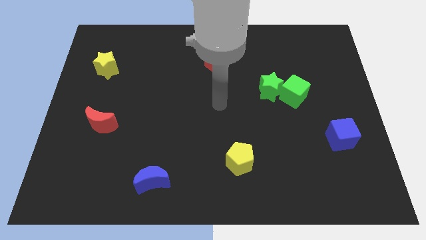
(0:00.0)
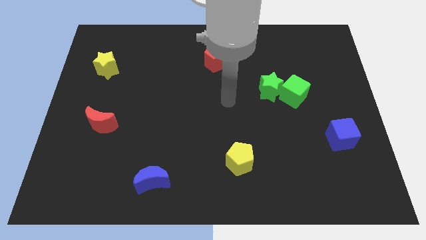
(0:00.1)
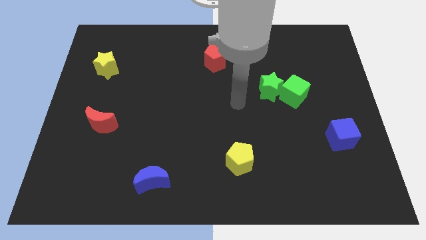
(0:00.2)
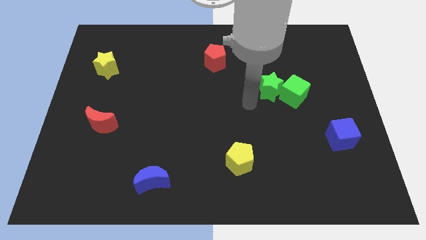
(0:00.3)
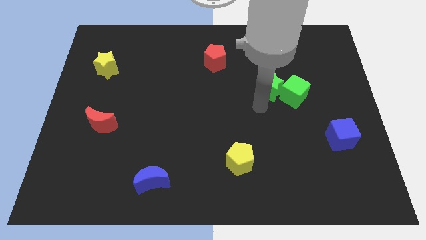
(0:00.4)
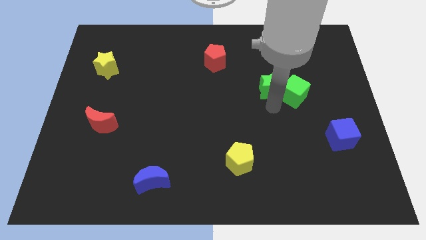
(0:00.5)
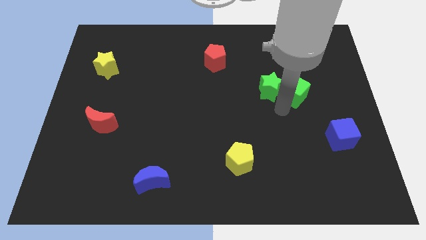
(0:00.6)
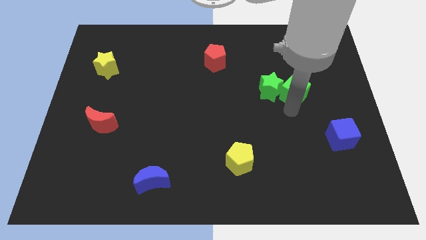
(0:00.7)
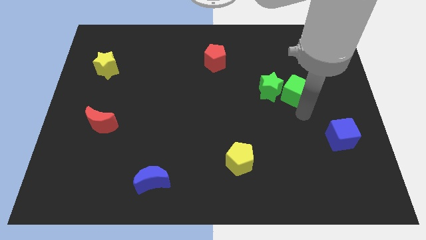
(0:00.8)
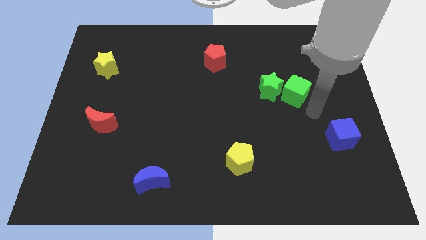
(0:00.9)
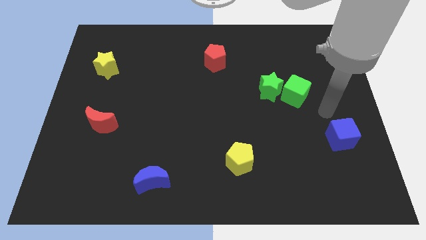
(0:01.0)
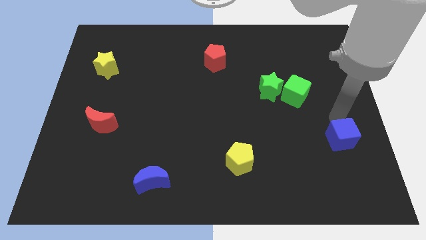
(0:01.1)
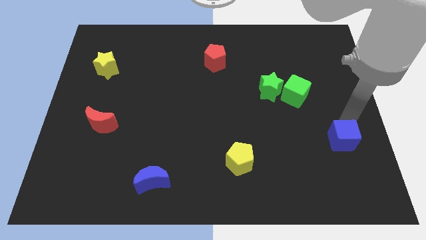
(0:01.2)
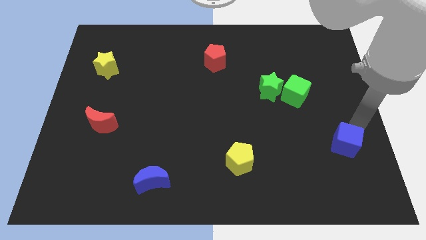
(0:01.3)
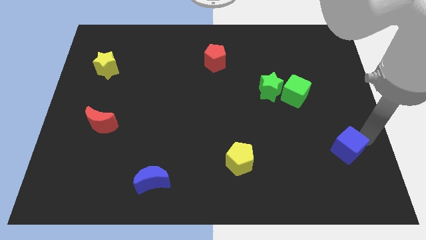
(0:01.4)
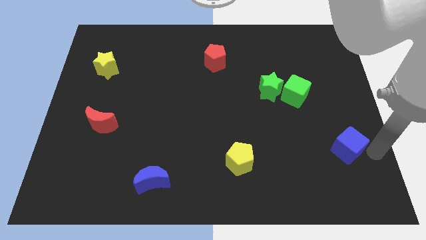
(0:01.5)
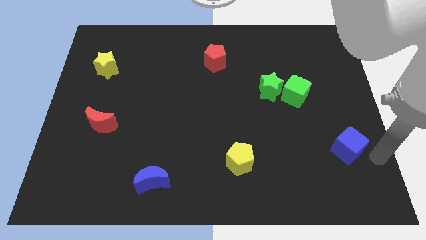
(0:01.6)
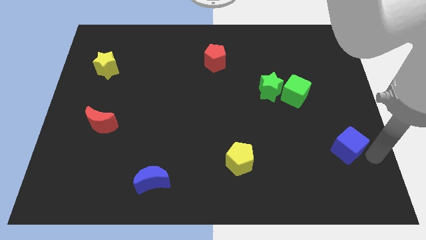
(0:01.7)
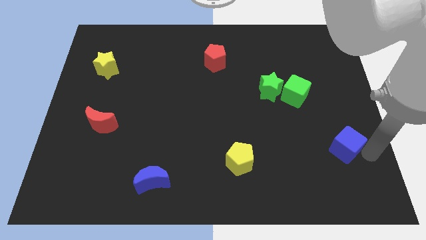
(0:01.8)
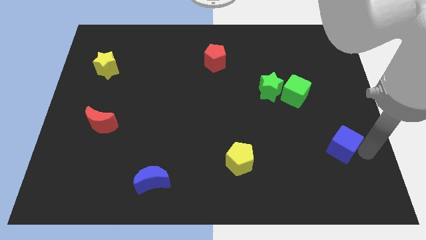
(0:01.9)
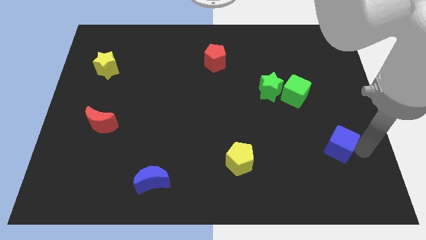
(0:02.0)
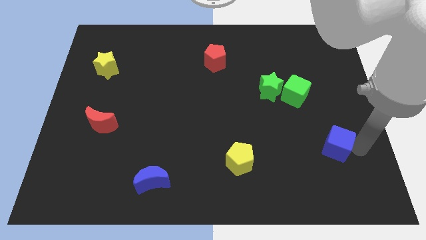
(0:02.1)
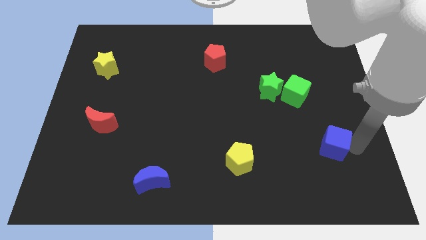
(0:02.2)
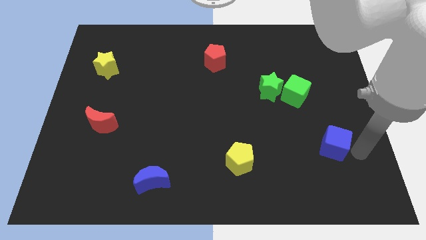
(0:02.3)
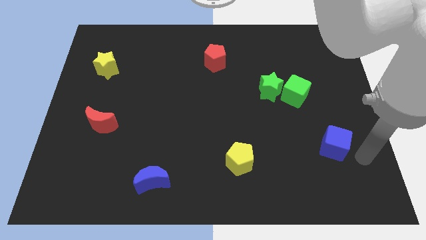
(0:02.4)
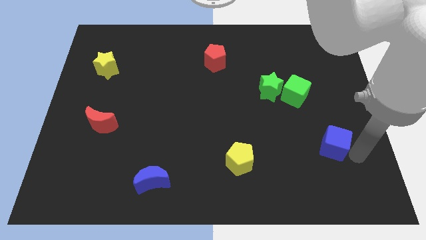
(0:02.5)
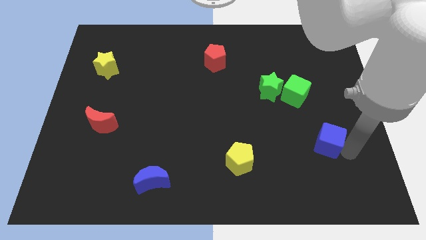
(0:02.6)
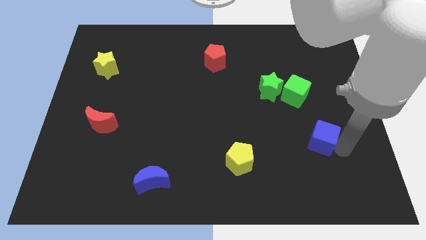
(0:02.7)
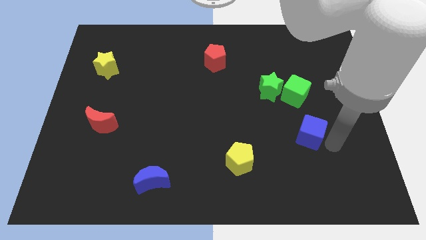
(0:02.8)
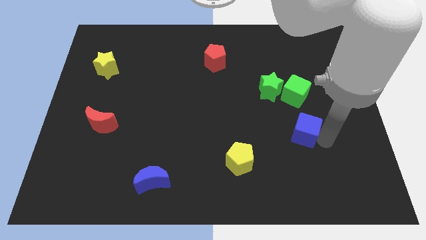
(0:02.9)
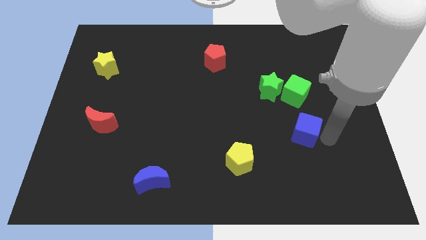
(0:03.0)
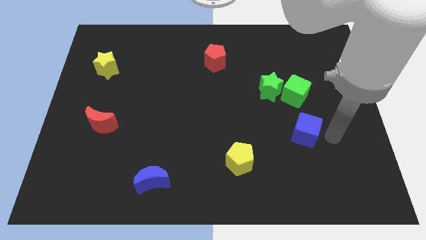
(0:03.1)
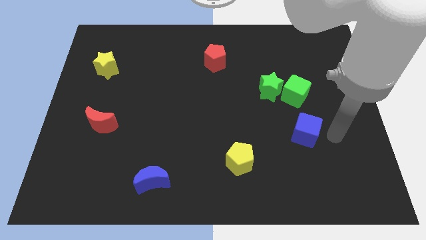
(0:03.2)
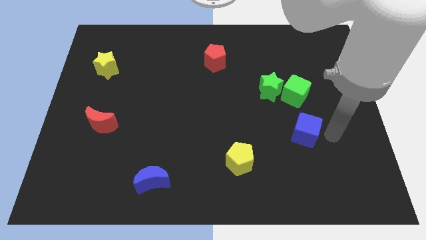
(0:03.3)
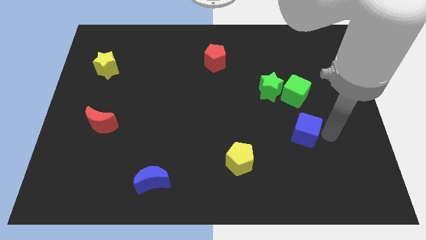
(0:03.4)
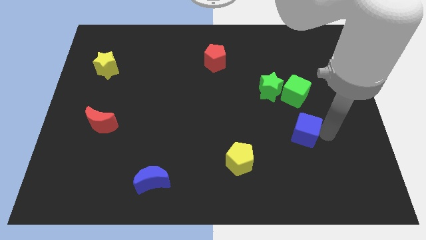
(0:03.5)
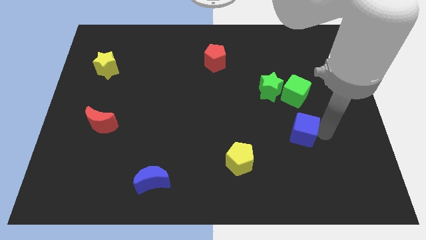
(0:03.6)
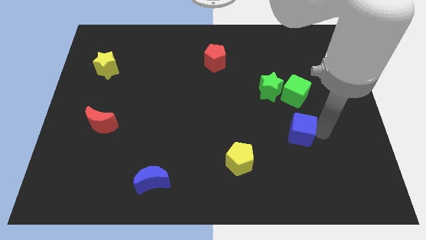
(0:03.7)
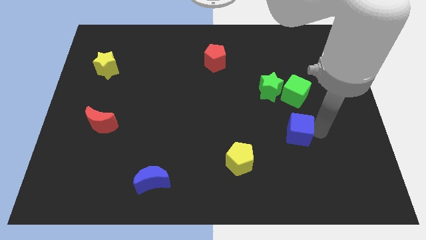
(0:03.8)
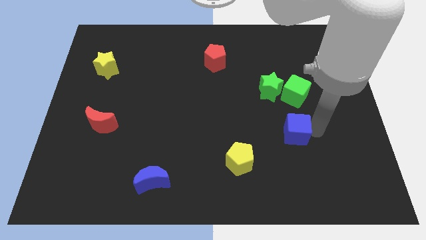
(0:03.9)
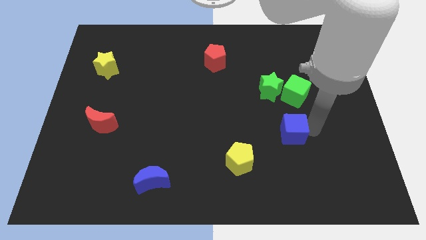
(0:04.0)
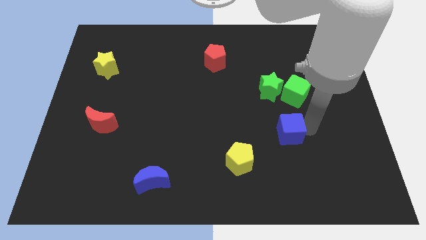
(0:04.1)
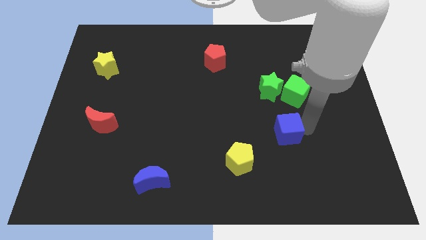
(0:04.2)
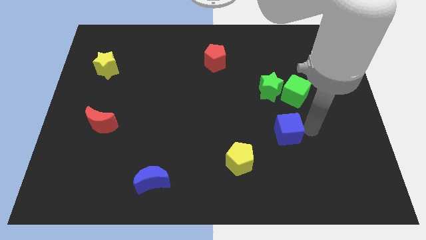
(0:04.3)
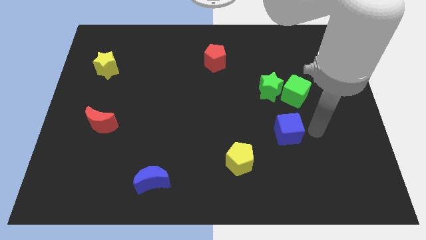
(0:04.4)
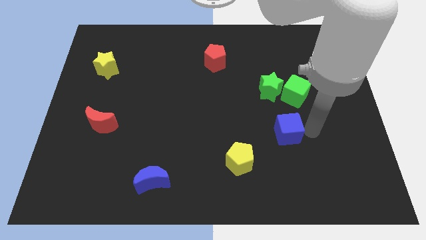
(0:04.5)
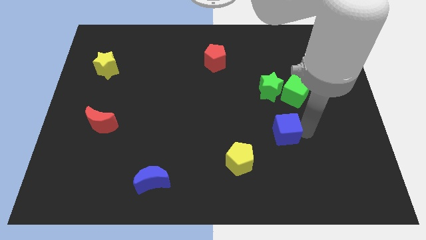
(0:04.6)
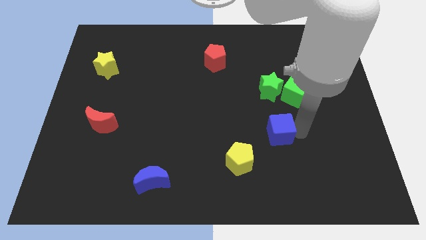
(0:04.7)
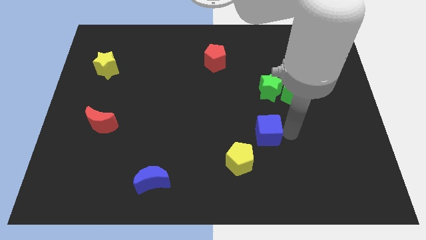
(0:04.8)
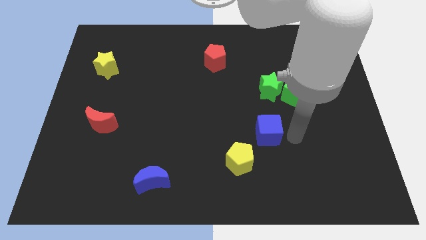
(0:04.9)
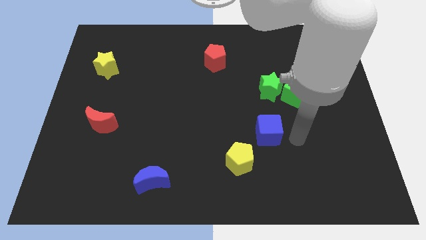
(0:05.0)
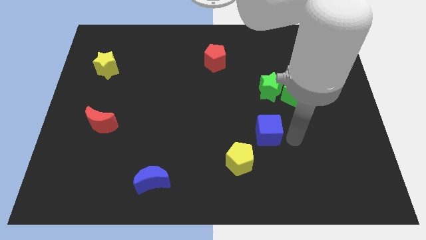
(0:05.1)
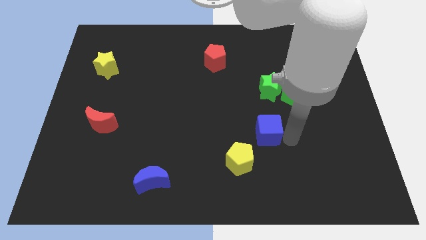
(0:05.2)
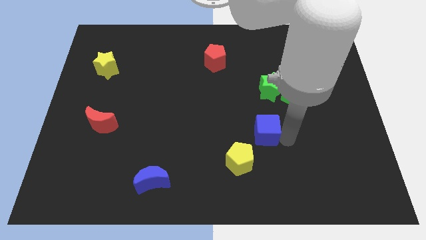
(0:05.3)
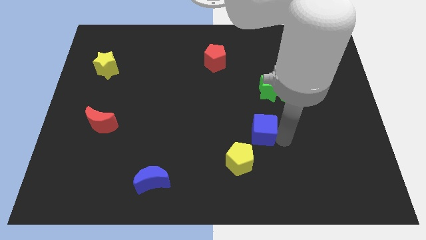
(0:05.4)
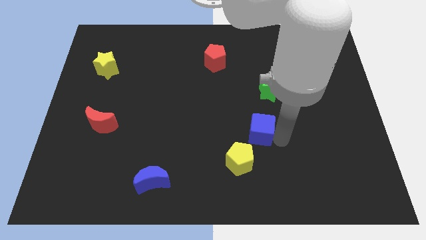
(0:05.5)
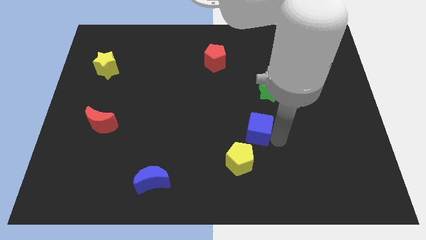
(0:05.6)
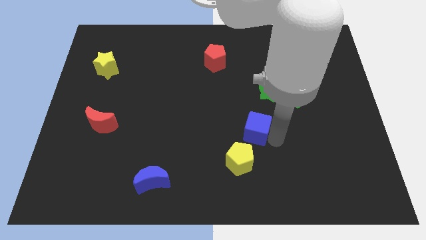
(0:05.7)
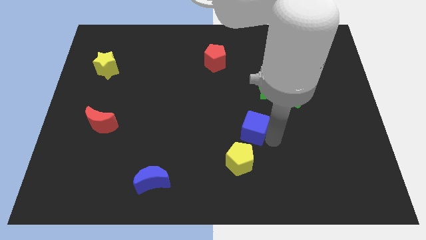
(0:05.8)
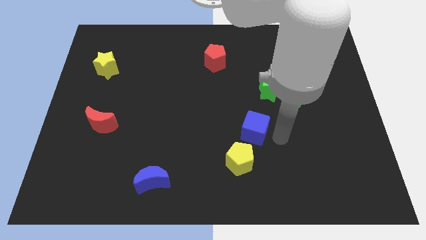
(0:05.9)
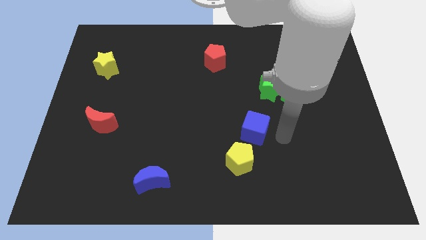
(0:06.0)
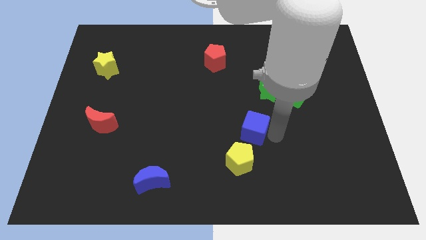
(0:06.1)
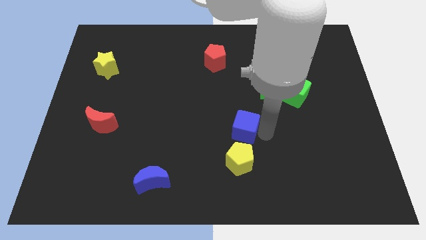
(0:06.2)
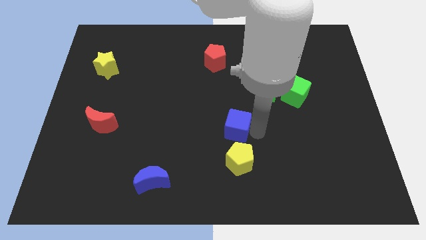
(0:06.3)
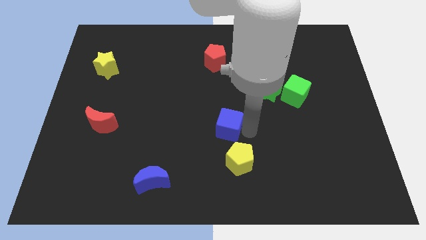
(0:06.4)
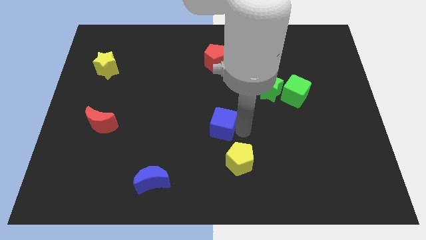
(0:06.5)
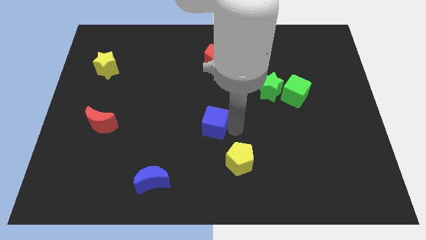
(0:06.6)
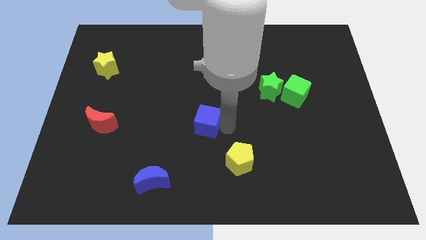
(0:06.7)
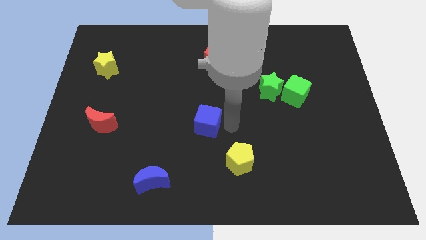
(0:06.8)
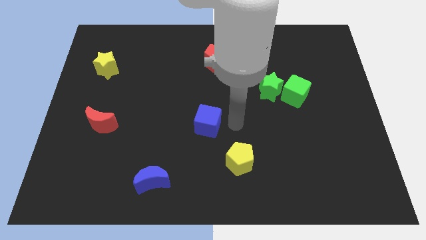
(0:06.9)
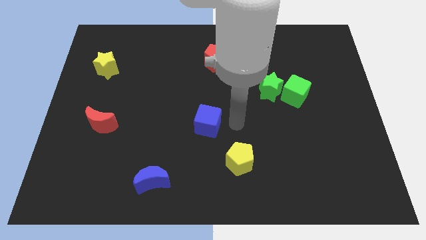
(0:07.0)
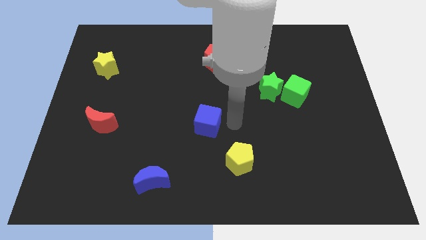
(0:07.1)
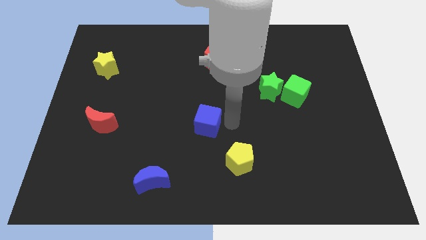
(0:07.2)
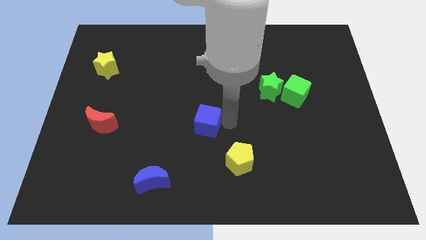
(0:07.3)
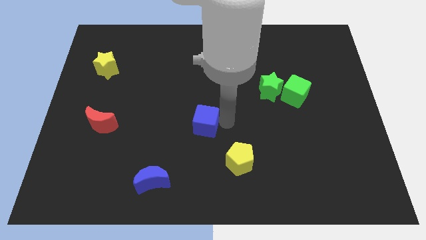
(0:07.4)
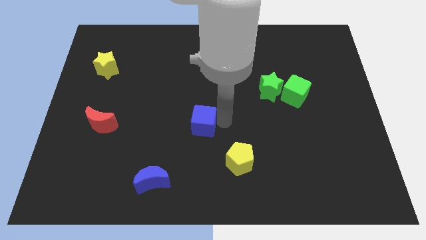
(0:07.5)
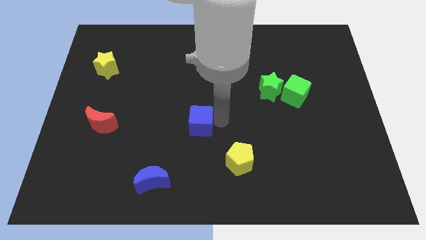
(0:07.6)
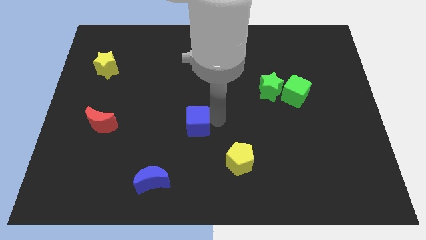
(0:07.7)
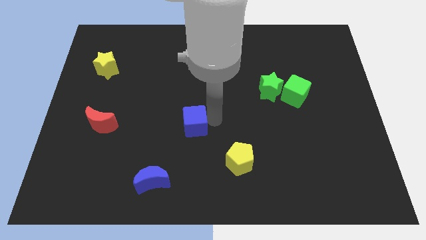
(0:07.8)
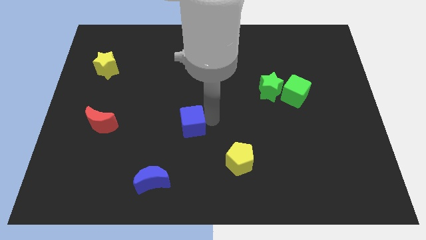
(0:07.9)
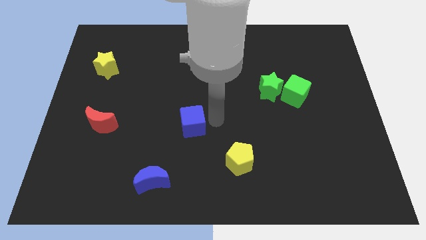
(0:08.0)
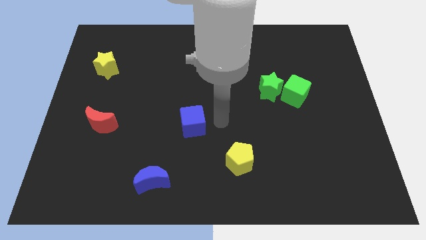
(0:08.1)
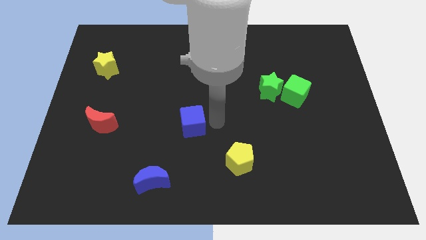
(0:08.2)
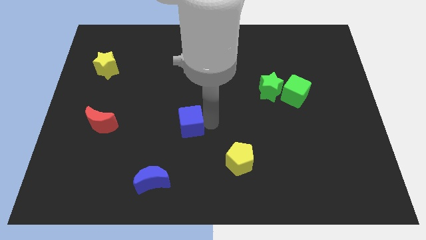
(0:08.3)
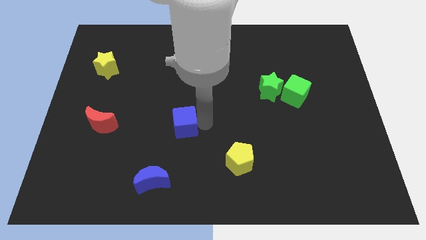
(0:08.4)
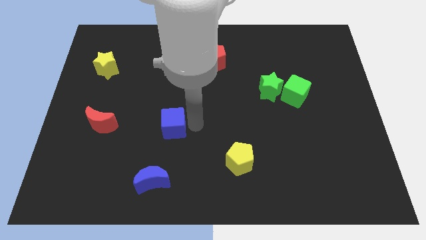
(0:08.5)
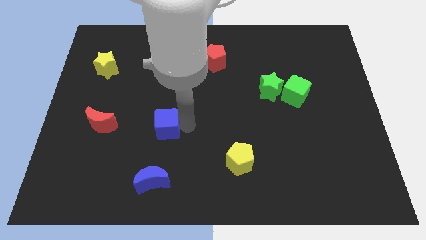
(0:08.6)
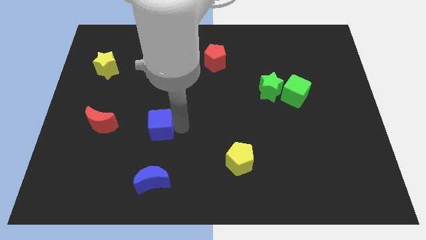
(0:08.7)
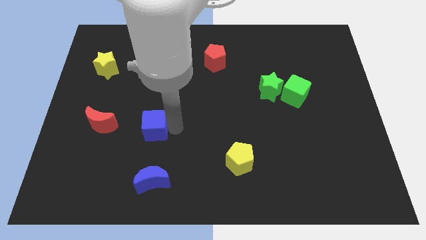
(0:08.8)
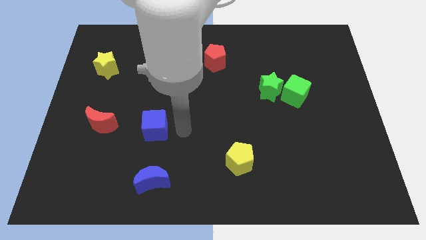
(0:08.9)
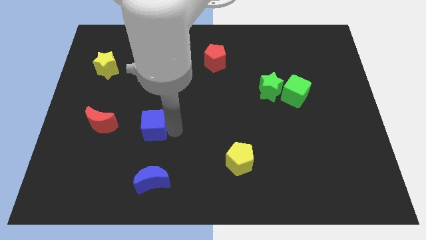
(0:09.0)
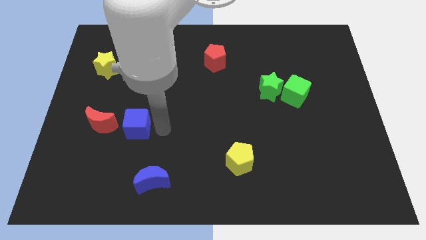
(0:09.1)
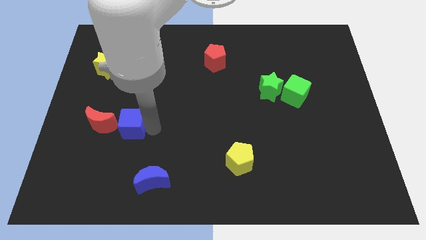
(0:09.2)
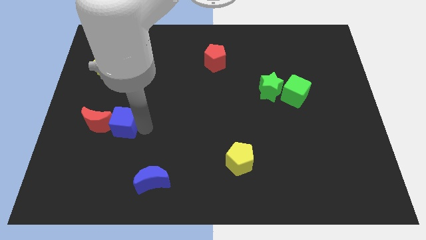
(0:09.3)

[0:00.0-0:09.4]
move the blue cube towards the red moon
